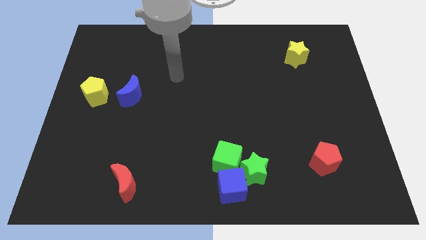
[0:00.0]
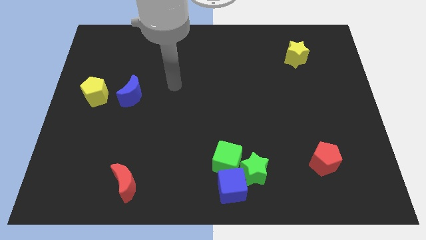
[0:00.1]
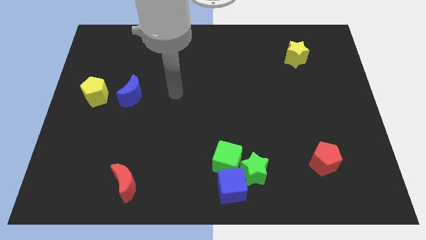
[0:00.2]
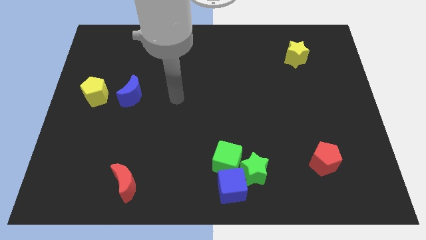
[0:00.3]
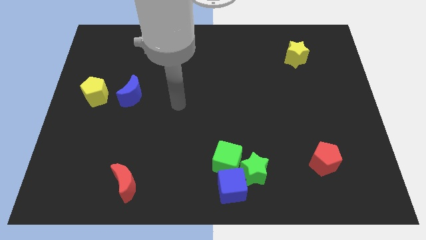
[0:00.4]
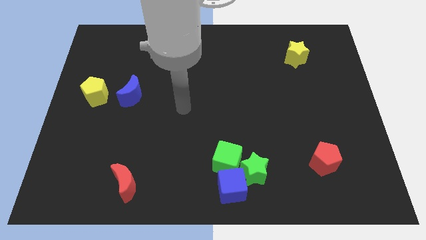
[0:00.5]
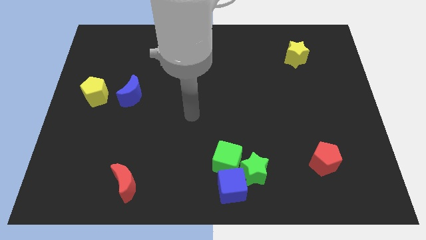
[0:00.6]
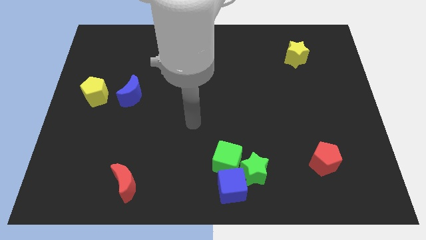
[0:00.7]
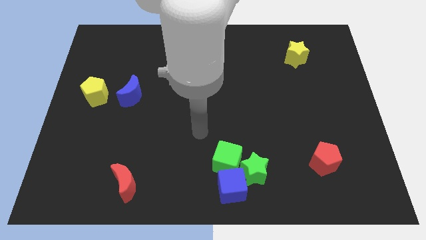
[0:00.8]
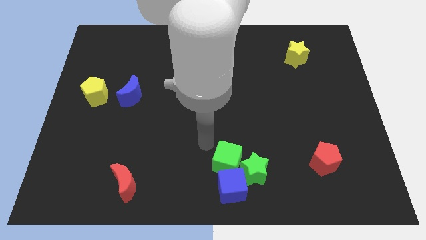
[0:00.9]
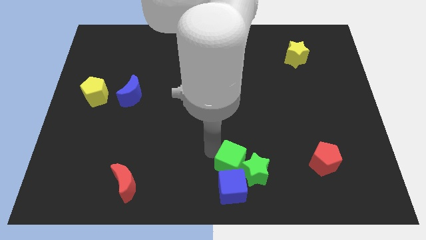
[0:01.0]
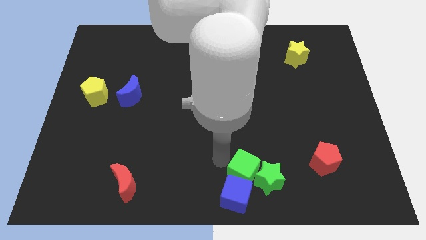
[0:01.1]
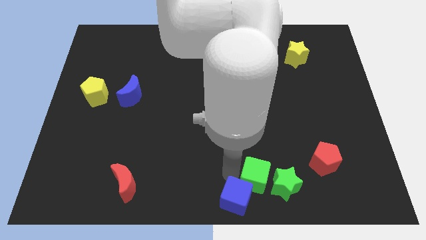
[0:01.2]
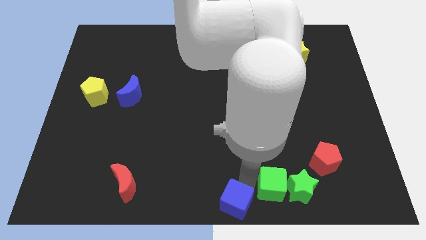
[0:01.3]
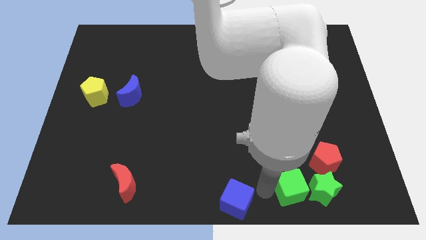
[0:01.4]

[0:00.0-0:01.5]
separate the green star from the blue cube and green cube

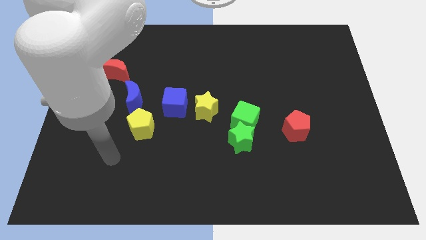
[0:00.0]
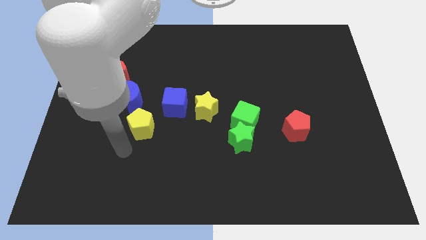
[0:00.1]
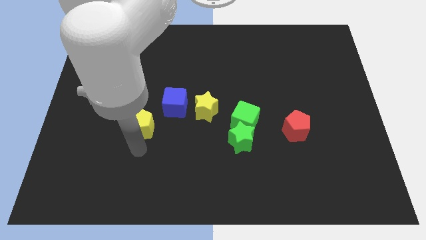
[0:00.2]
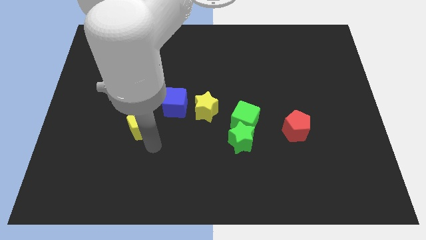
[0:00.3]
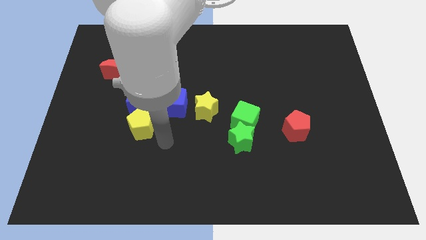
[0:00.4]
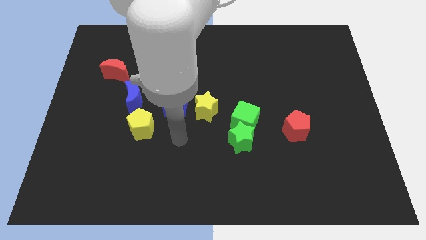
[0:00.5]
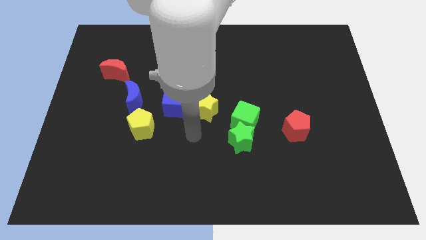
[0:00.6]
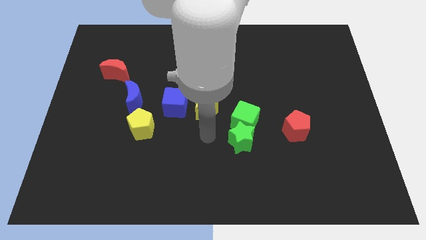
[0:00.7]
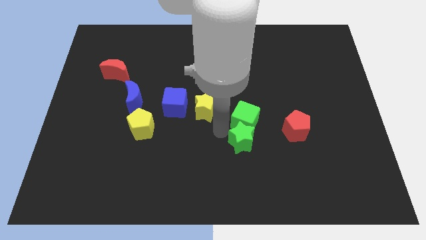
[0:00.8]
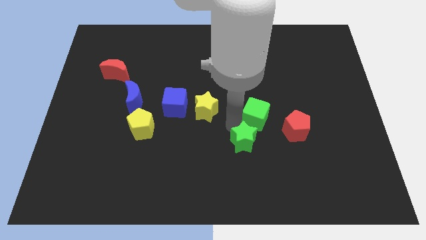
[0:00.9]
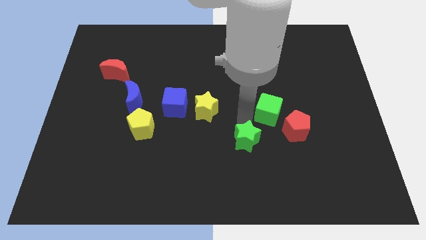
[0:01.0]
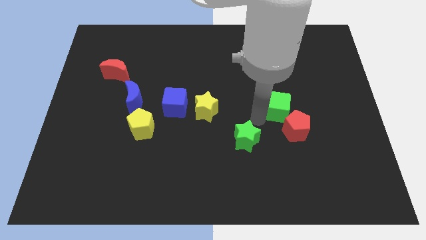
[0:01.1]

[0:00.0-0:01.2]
move the green star away from the green cube

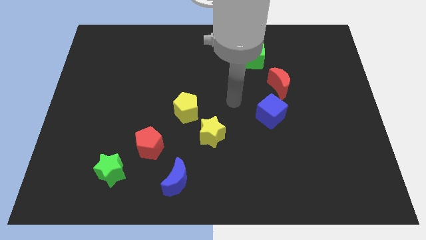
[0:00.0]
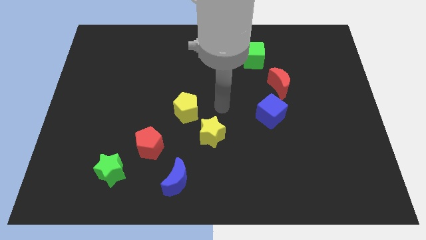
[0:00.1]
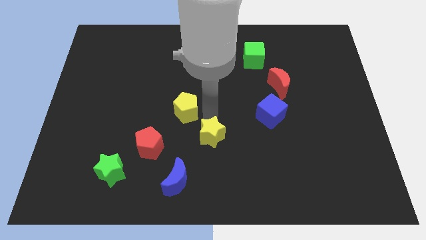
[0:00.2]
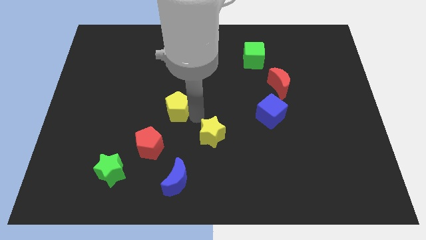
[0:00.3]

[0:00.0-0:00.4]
pull the yellow star apart from the yellow pentagon

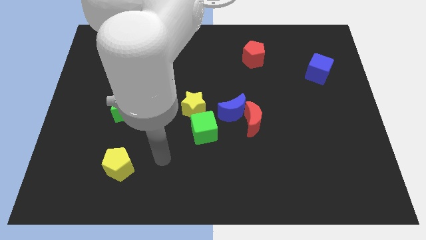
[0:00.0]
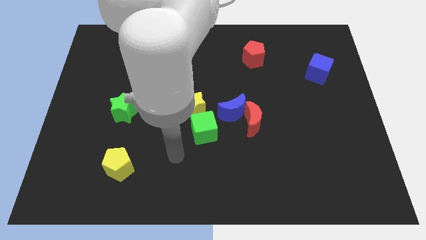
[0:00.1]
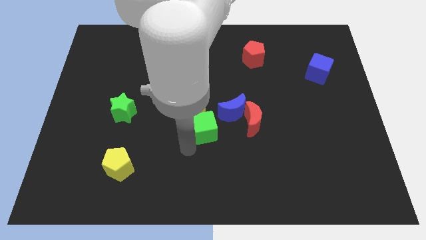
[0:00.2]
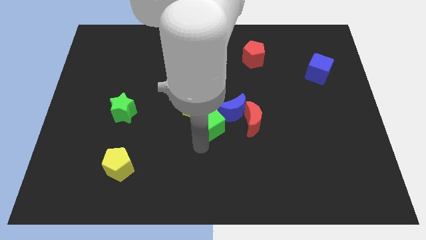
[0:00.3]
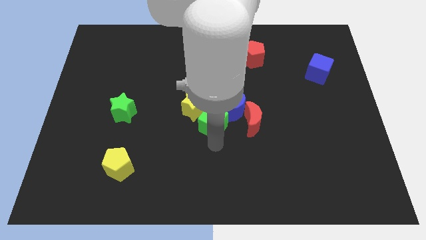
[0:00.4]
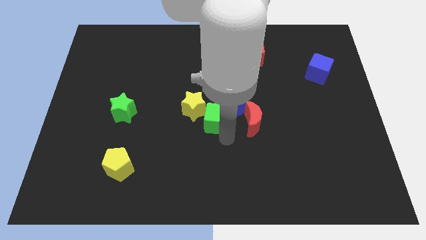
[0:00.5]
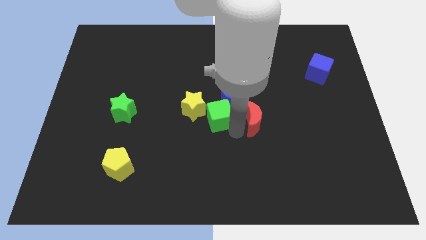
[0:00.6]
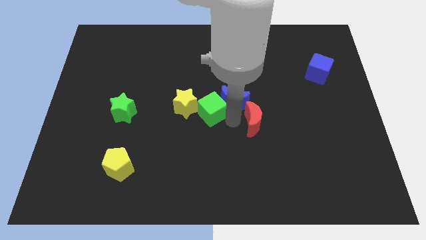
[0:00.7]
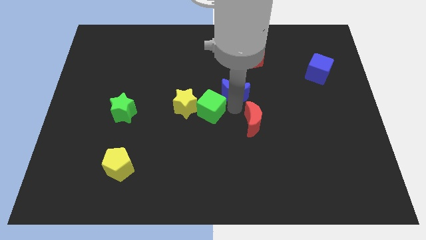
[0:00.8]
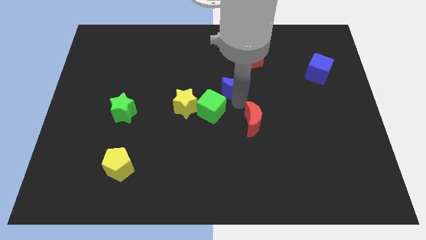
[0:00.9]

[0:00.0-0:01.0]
separate the red moon from the blue moon

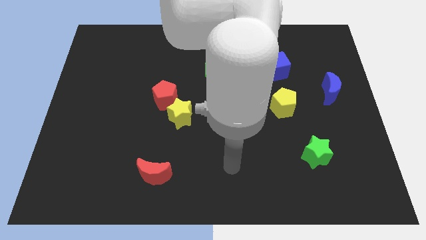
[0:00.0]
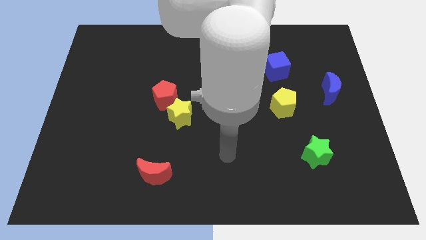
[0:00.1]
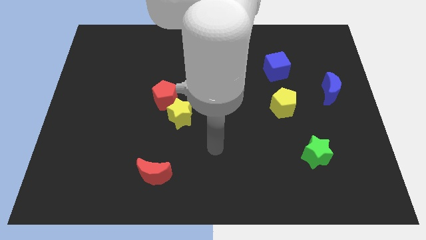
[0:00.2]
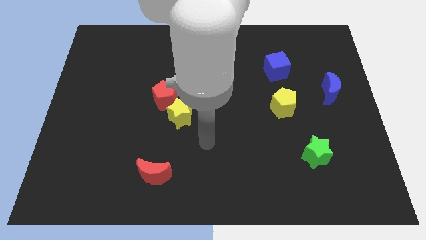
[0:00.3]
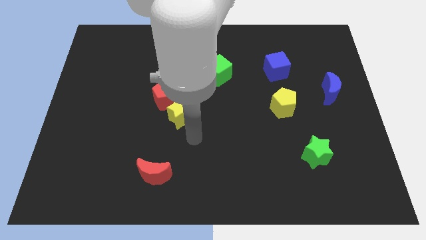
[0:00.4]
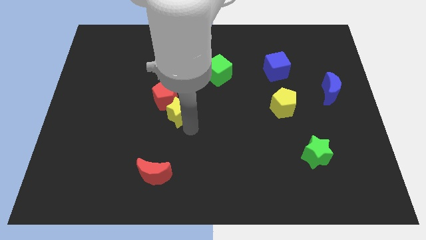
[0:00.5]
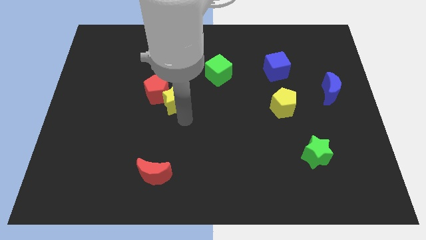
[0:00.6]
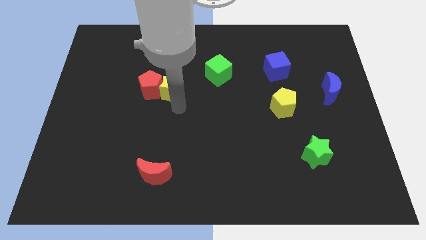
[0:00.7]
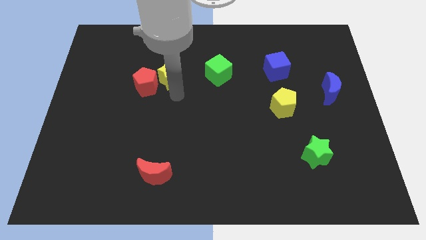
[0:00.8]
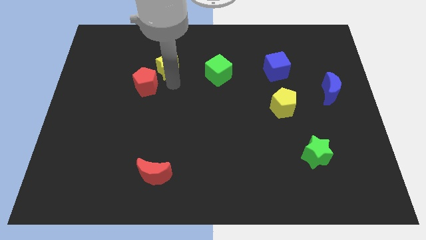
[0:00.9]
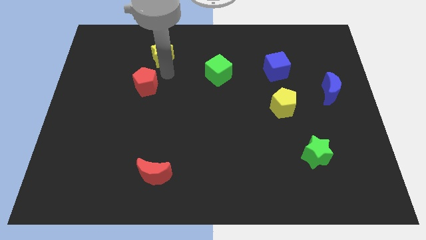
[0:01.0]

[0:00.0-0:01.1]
pull the red pentagon apart from the yellow star

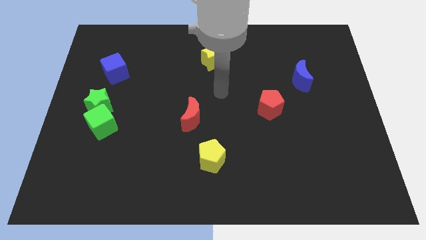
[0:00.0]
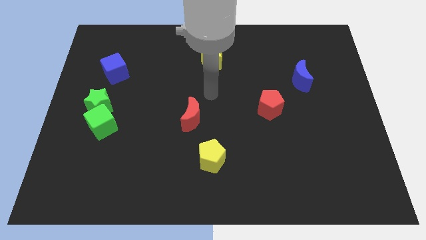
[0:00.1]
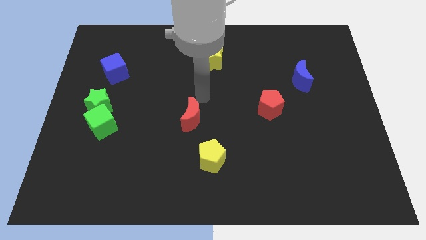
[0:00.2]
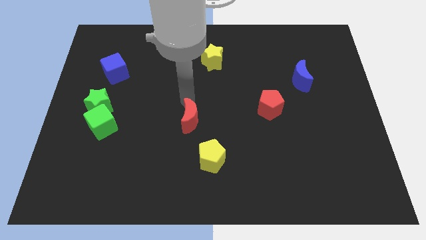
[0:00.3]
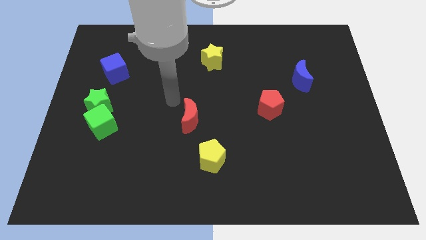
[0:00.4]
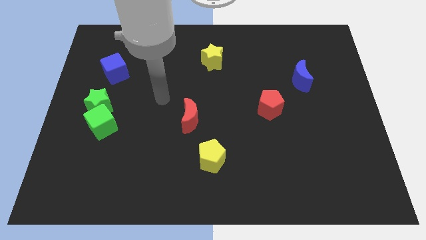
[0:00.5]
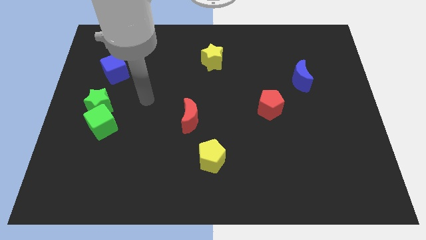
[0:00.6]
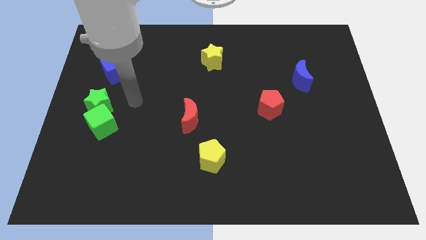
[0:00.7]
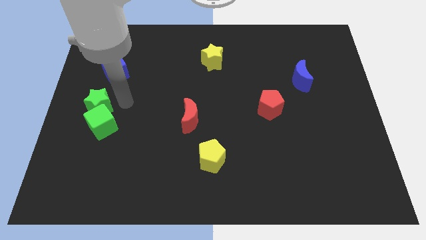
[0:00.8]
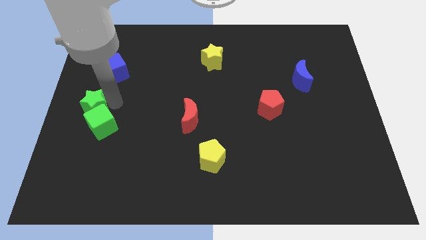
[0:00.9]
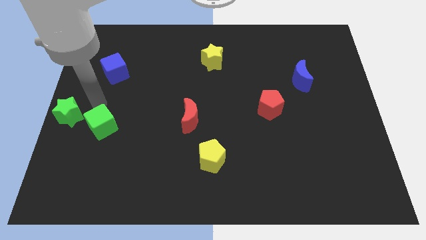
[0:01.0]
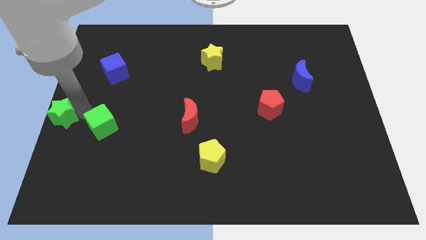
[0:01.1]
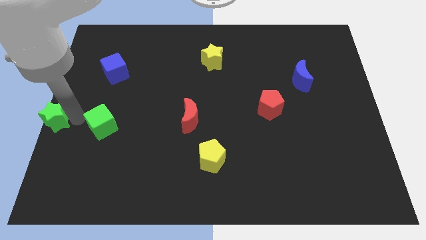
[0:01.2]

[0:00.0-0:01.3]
pull the green cube apart from the green star

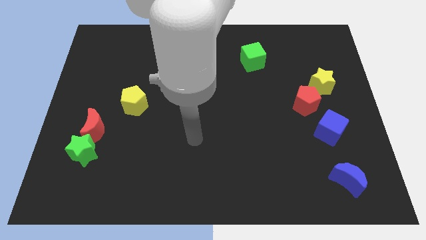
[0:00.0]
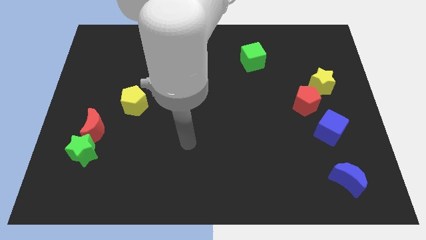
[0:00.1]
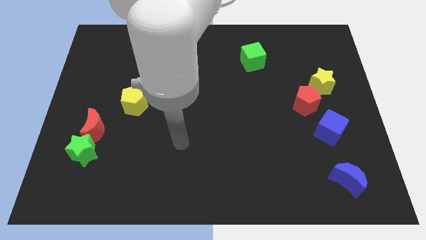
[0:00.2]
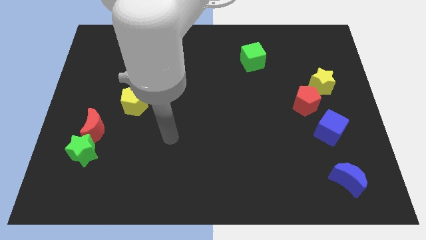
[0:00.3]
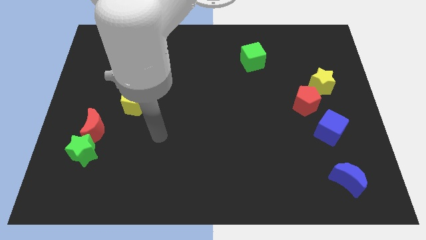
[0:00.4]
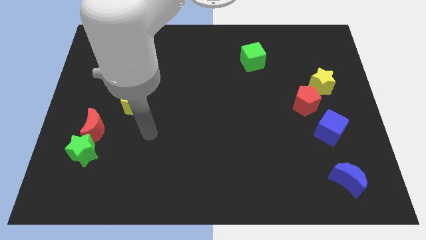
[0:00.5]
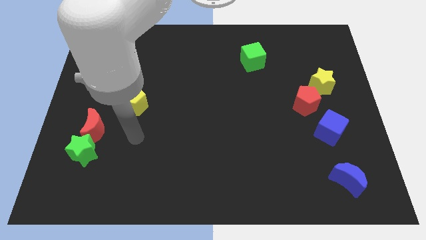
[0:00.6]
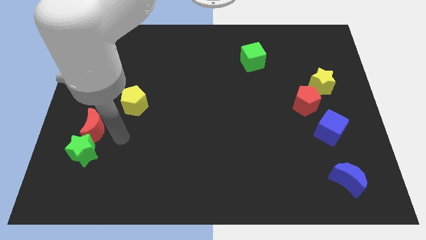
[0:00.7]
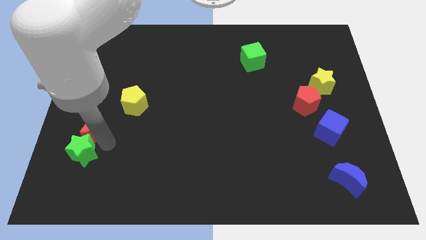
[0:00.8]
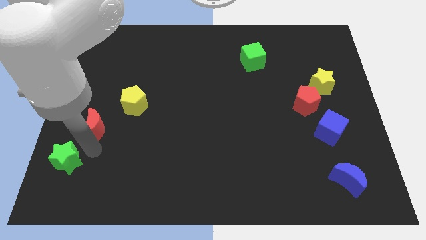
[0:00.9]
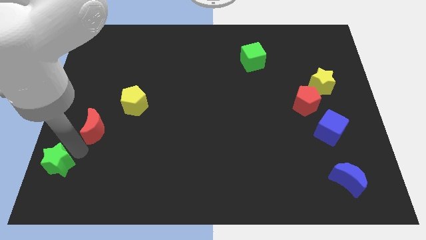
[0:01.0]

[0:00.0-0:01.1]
move the red moon away from the green star

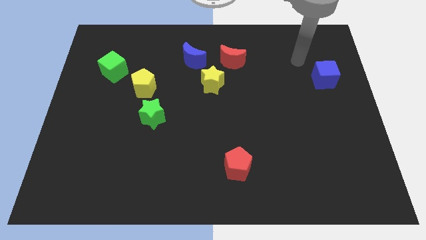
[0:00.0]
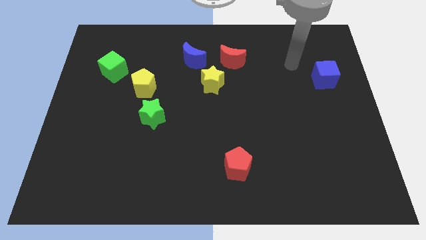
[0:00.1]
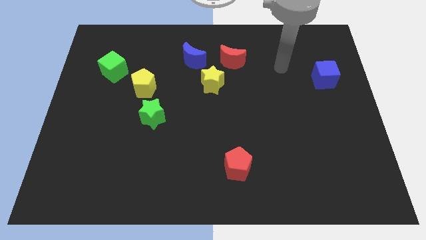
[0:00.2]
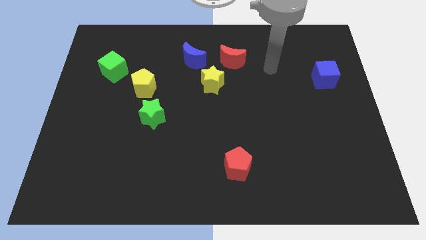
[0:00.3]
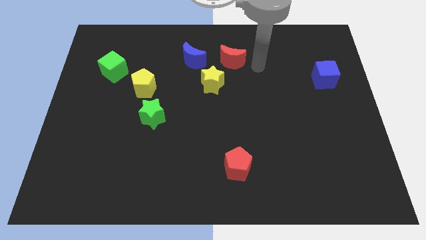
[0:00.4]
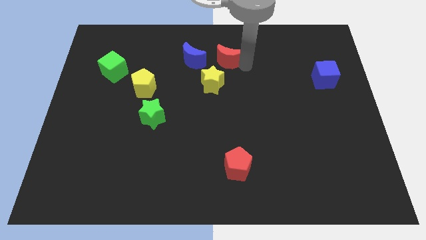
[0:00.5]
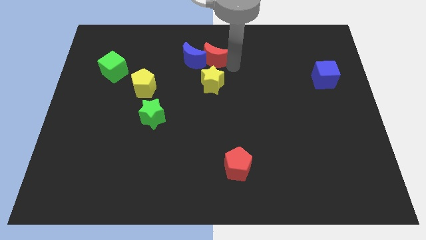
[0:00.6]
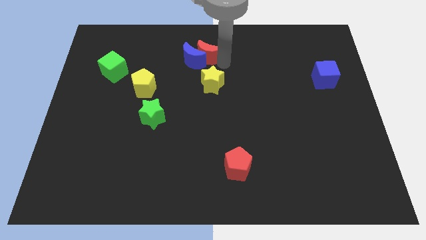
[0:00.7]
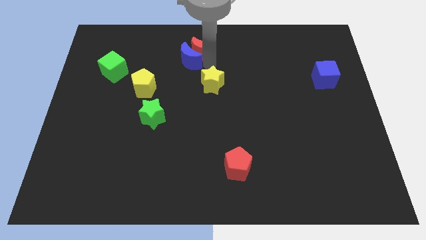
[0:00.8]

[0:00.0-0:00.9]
separate the yellow star from the red moon and blue moon

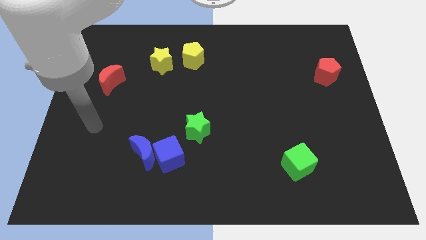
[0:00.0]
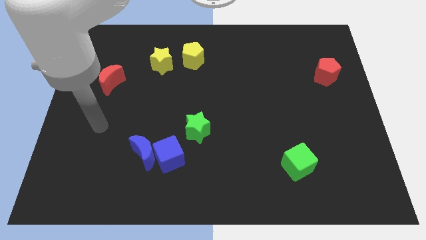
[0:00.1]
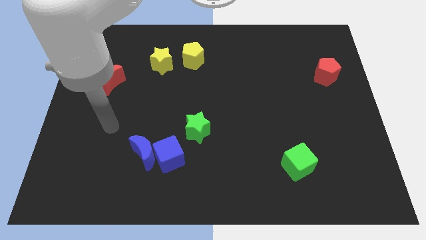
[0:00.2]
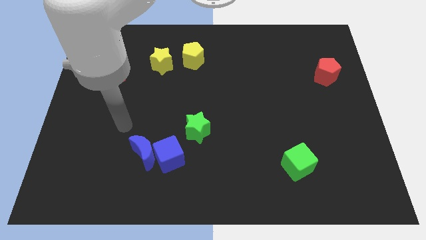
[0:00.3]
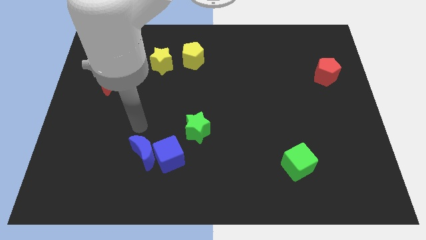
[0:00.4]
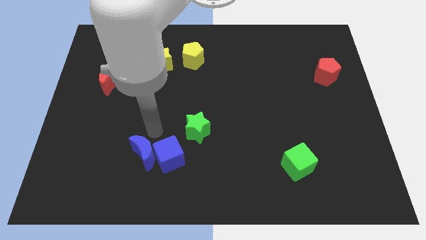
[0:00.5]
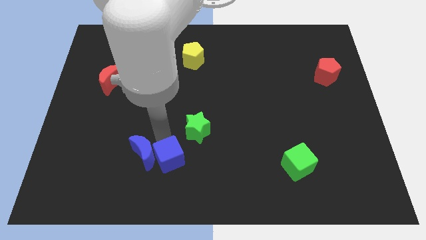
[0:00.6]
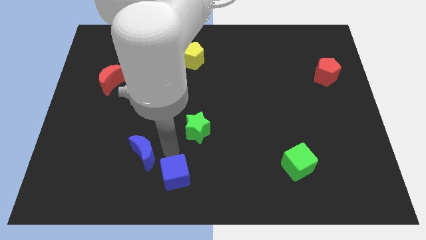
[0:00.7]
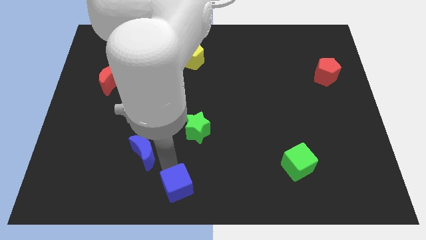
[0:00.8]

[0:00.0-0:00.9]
pull the blue moon apart from the blue cube
